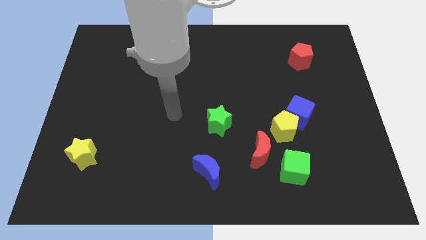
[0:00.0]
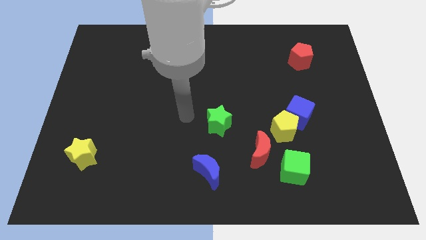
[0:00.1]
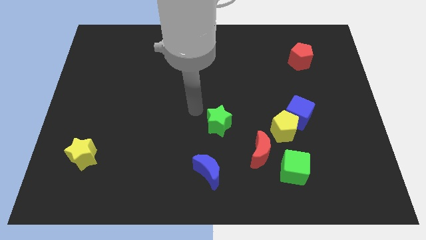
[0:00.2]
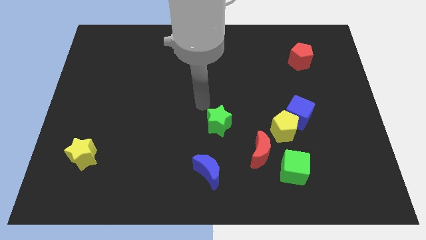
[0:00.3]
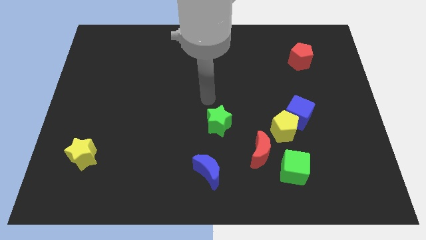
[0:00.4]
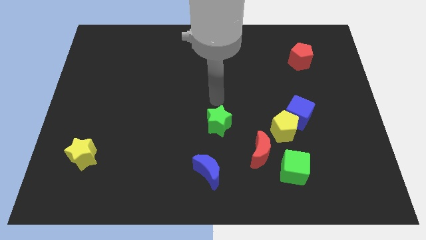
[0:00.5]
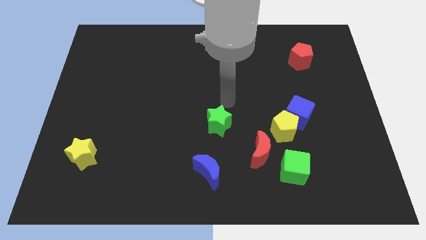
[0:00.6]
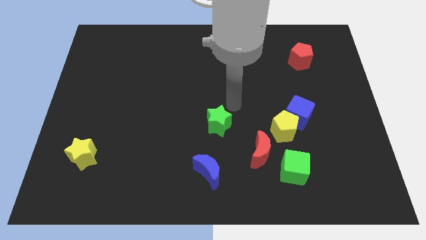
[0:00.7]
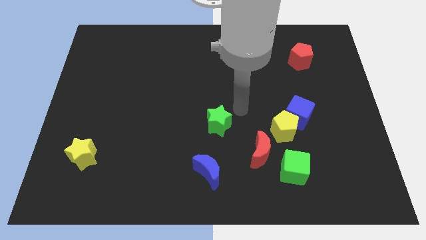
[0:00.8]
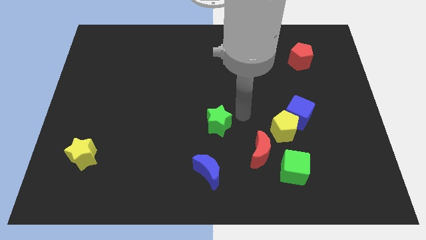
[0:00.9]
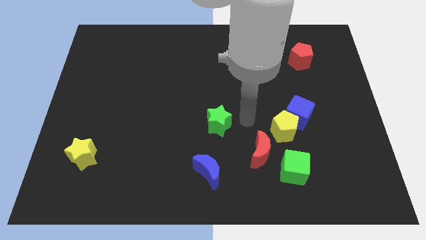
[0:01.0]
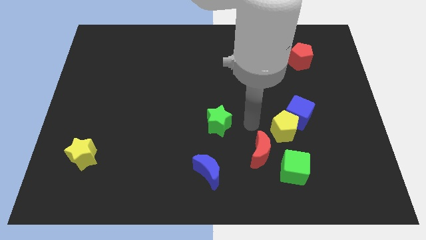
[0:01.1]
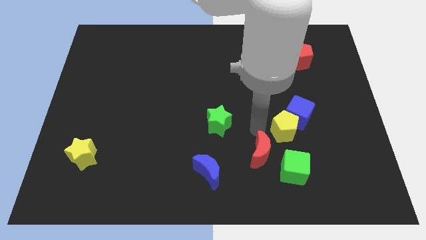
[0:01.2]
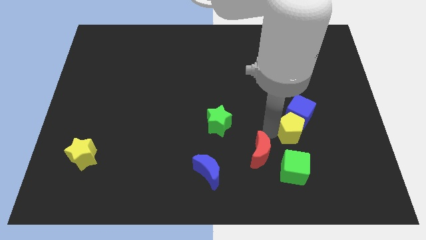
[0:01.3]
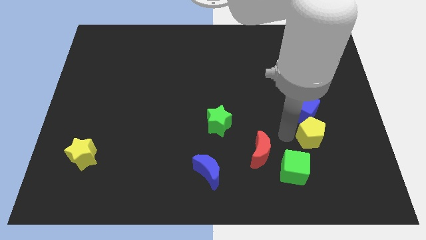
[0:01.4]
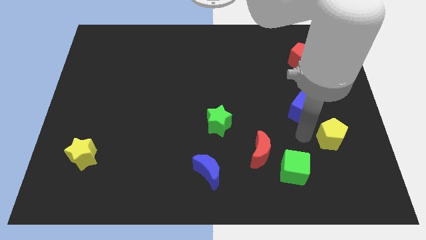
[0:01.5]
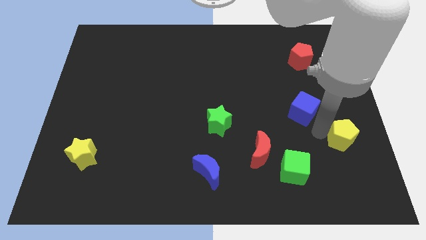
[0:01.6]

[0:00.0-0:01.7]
pull the blue cube apart from the yellow pentagon

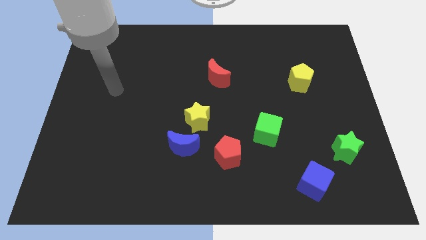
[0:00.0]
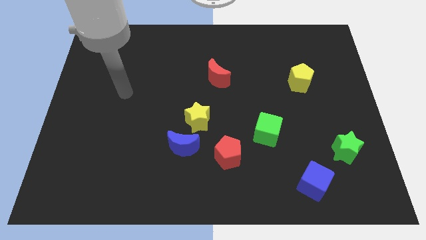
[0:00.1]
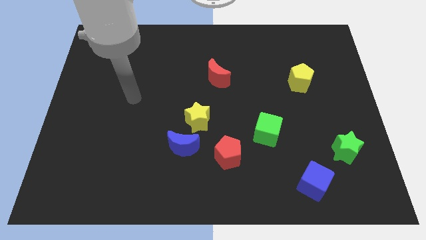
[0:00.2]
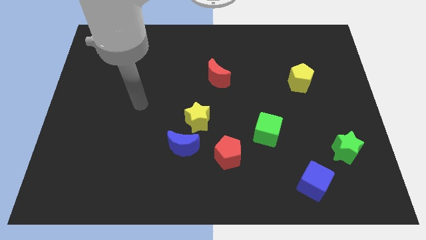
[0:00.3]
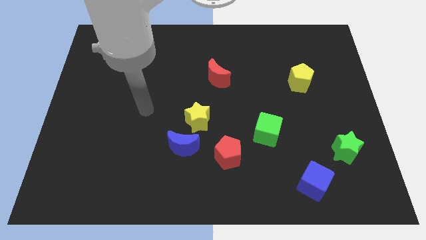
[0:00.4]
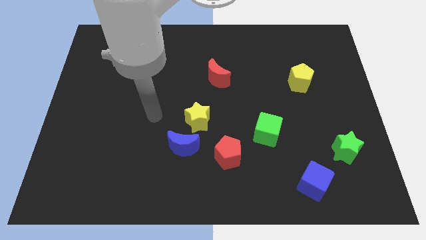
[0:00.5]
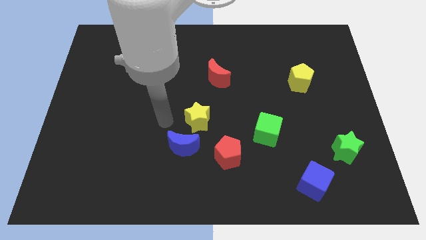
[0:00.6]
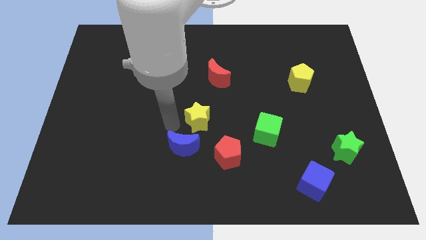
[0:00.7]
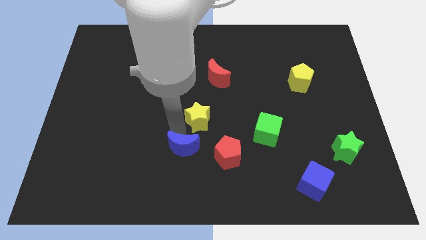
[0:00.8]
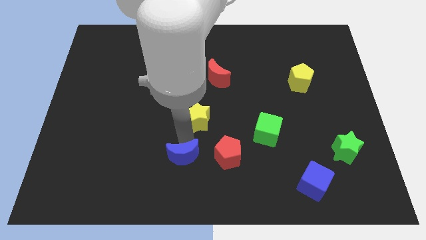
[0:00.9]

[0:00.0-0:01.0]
move the yellow star away from the blue moon

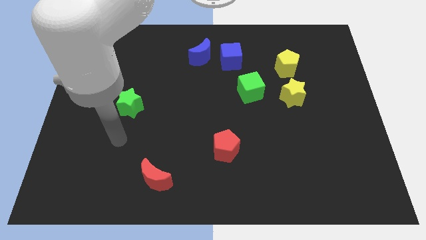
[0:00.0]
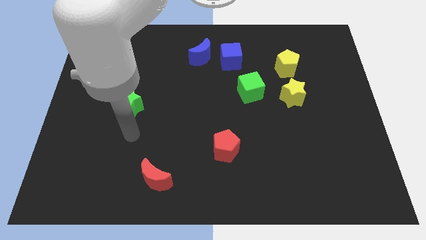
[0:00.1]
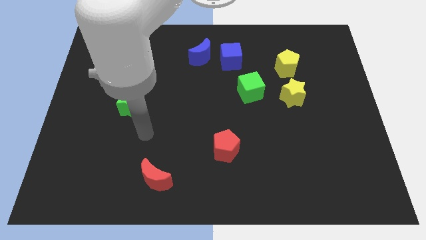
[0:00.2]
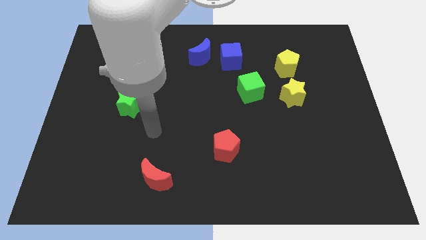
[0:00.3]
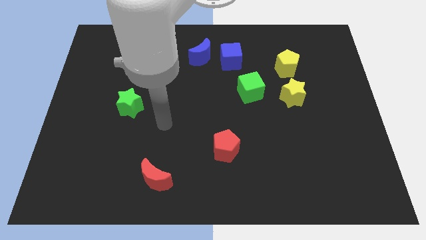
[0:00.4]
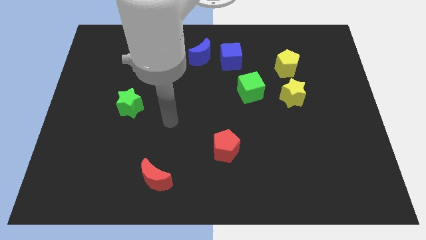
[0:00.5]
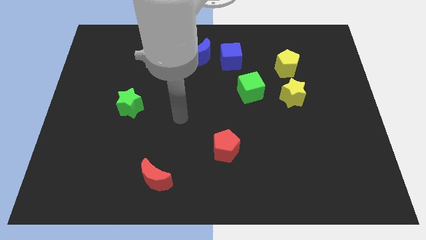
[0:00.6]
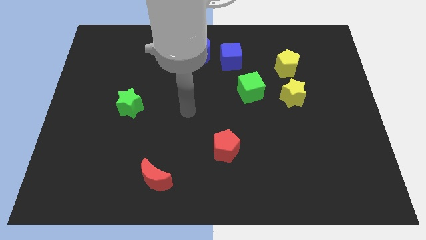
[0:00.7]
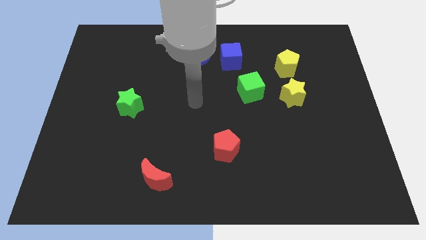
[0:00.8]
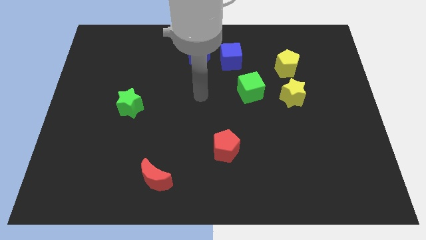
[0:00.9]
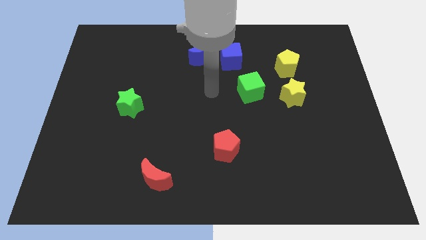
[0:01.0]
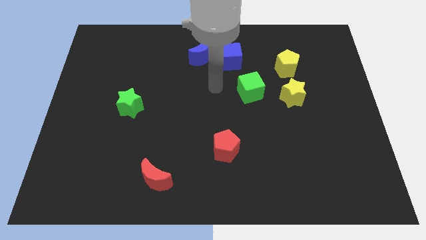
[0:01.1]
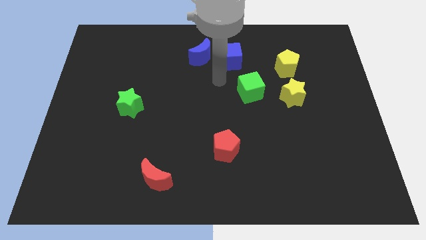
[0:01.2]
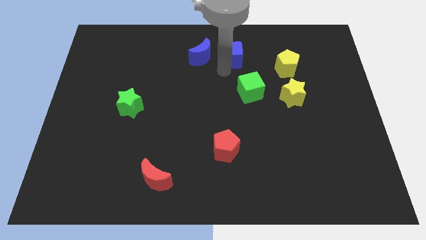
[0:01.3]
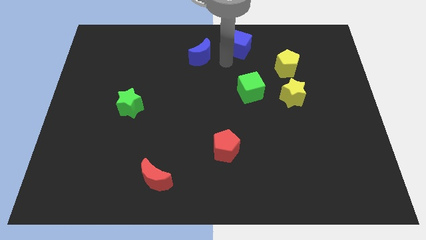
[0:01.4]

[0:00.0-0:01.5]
move the blue moon away from the blue cube

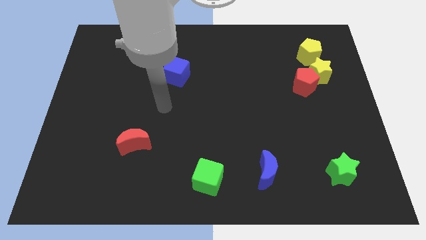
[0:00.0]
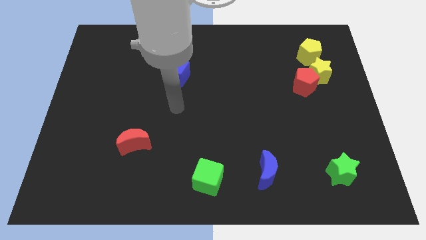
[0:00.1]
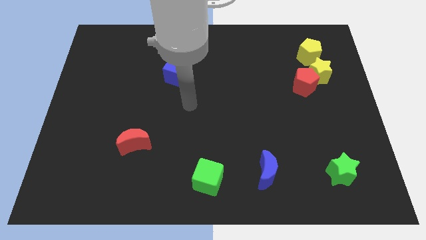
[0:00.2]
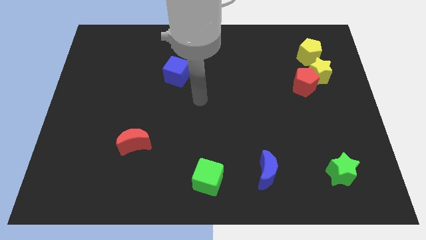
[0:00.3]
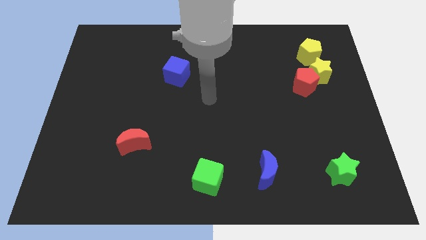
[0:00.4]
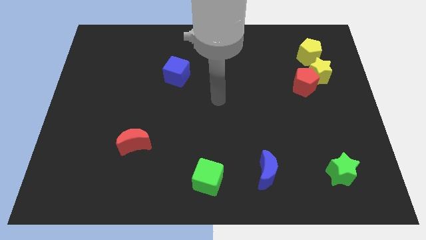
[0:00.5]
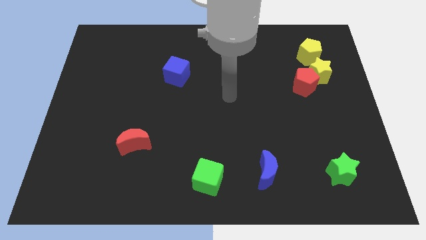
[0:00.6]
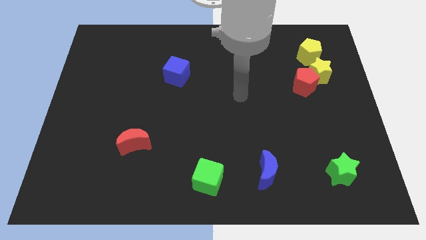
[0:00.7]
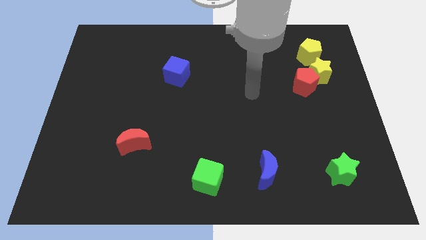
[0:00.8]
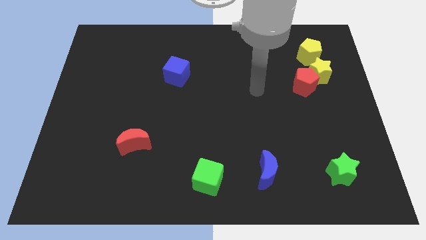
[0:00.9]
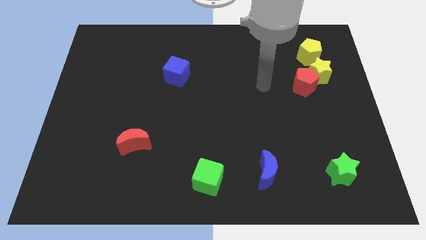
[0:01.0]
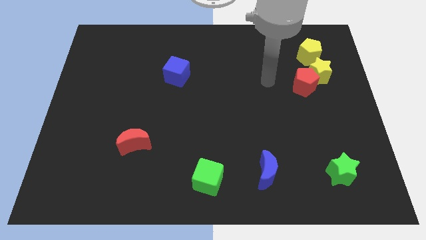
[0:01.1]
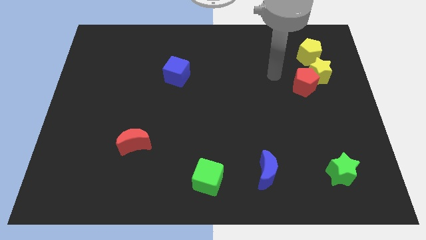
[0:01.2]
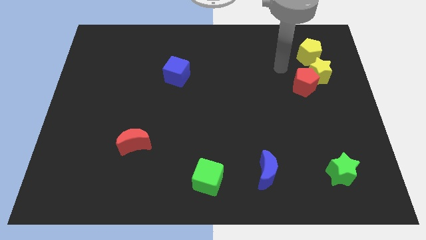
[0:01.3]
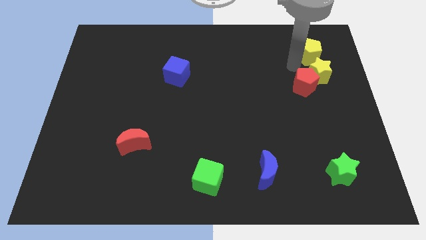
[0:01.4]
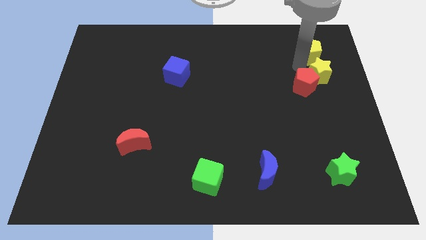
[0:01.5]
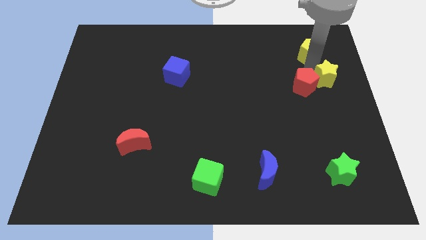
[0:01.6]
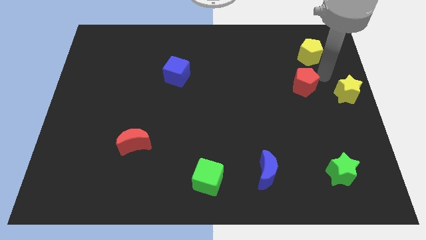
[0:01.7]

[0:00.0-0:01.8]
separate the red pentagon from the yellow star

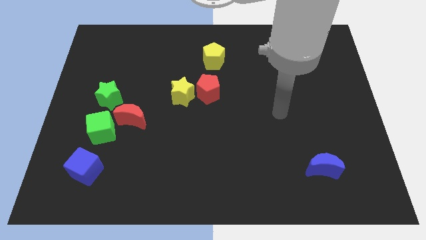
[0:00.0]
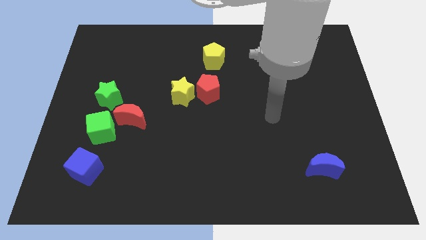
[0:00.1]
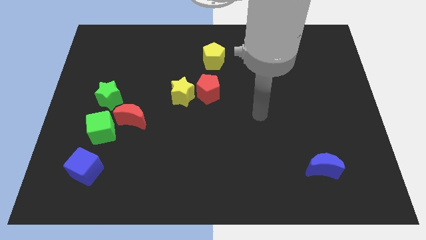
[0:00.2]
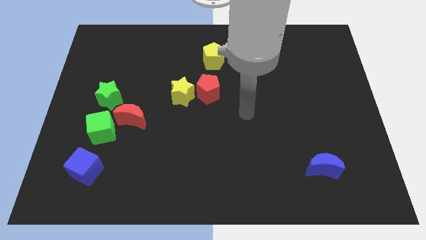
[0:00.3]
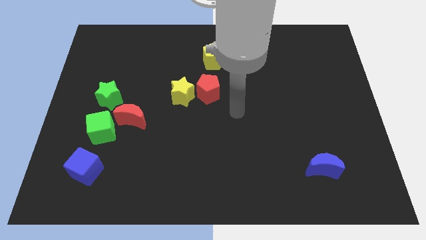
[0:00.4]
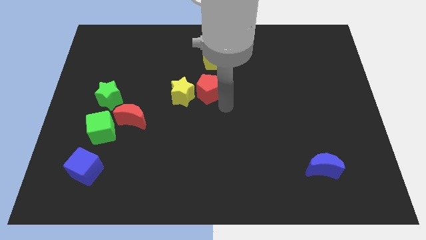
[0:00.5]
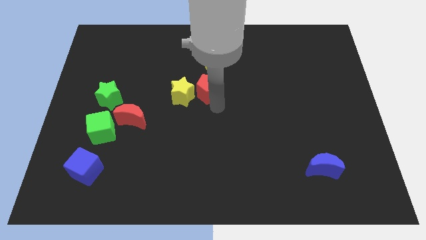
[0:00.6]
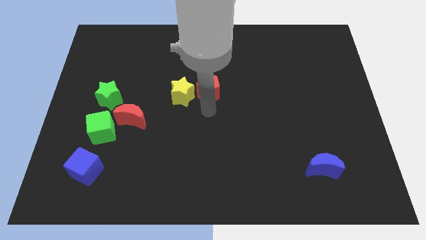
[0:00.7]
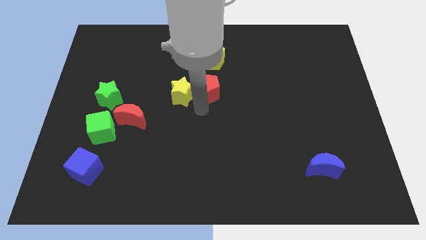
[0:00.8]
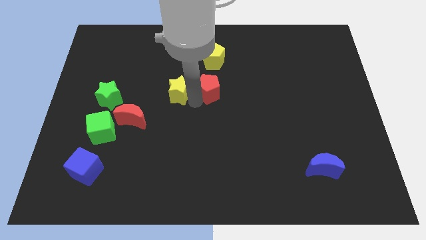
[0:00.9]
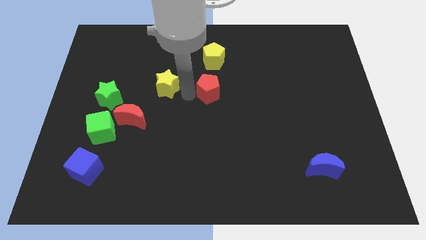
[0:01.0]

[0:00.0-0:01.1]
move the red pentagon away from the yellow star

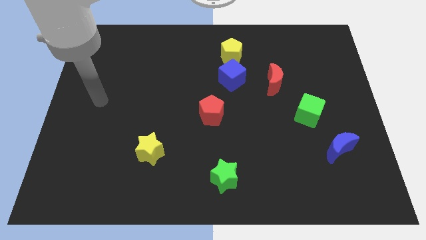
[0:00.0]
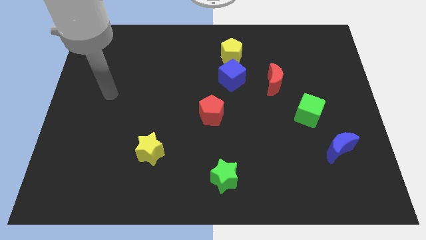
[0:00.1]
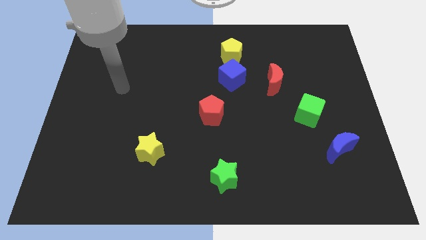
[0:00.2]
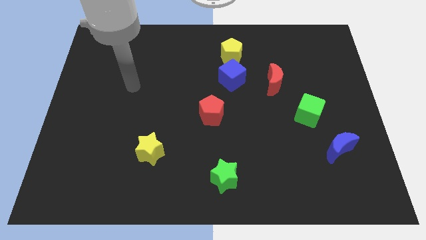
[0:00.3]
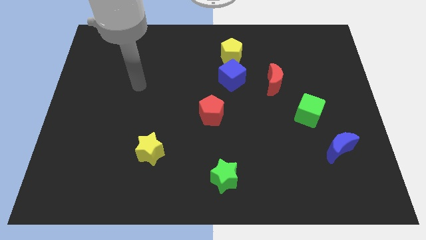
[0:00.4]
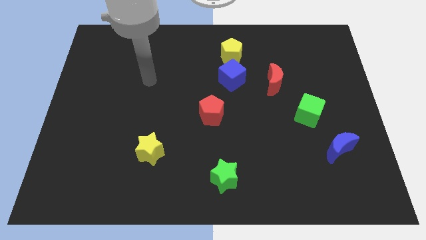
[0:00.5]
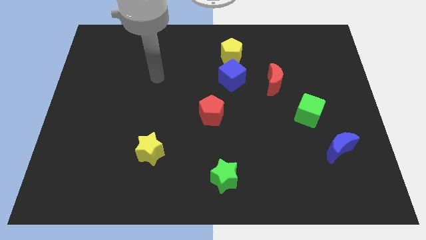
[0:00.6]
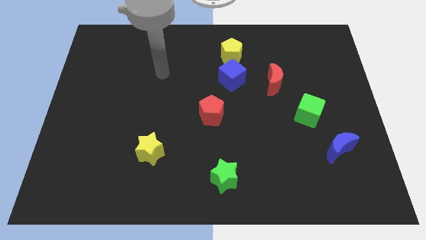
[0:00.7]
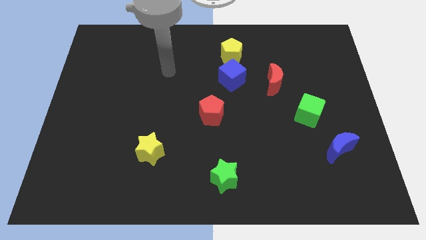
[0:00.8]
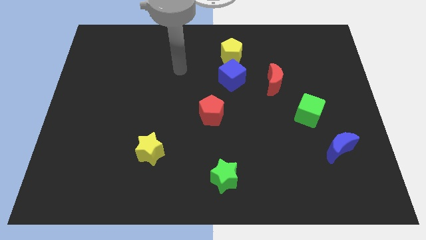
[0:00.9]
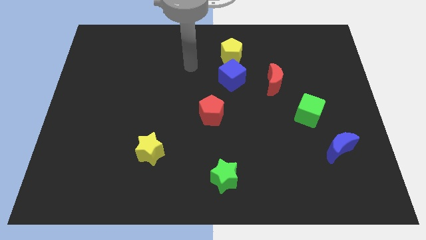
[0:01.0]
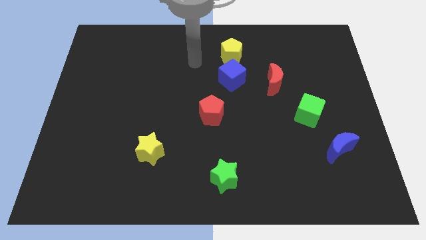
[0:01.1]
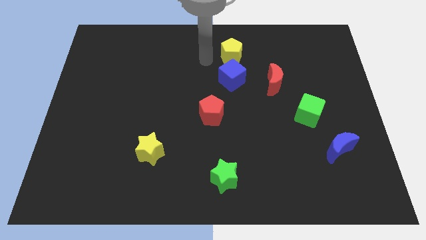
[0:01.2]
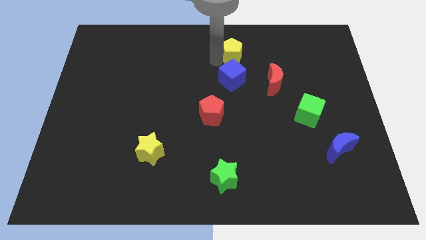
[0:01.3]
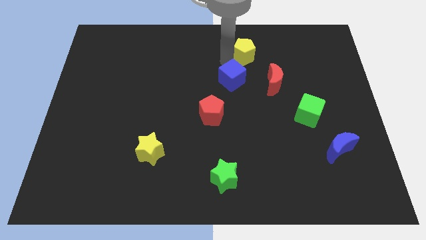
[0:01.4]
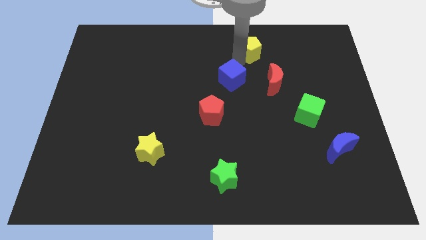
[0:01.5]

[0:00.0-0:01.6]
move the blue cube away from the yellow pentagon

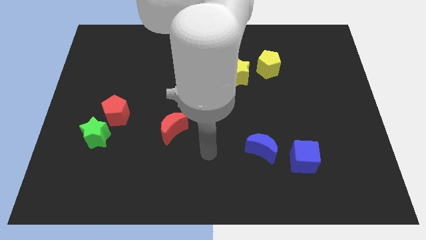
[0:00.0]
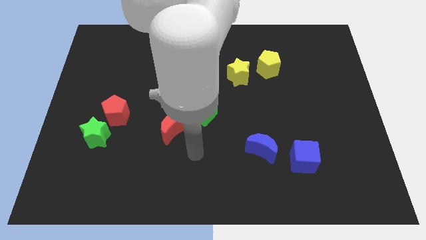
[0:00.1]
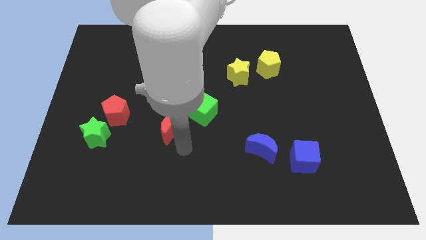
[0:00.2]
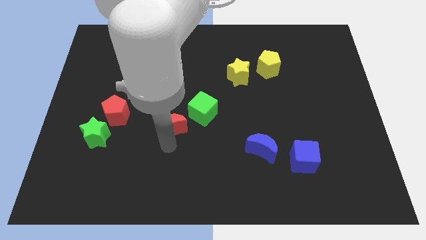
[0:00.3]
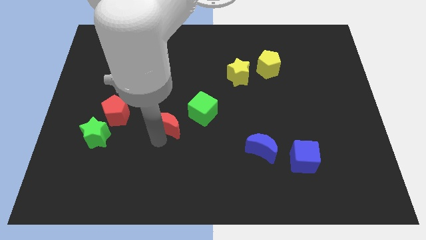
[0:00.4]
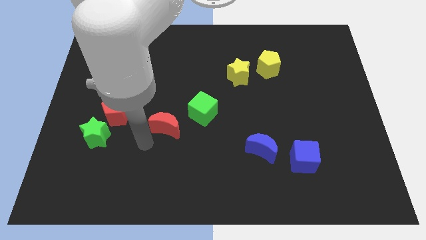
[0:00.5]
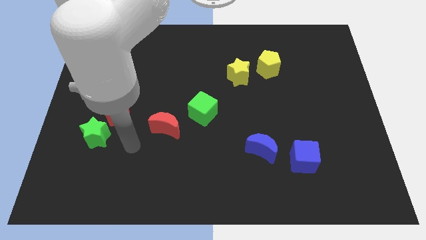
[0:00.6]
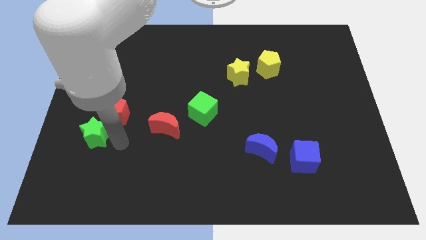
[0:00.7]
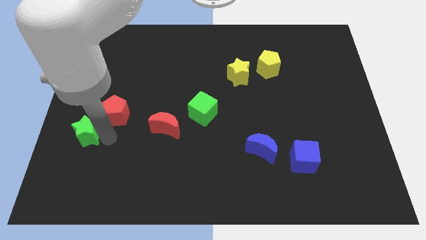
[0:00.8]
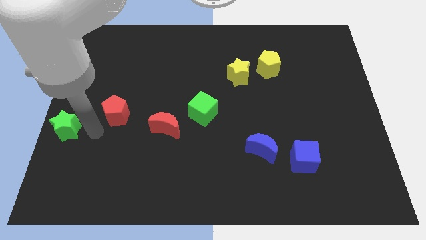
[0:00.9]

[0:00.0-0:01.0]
move the red pentagon away from the green star
